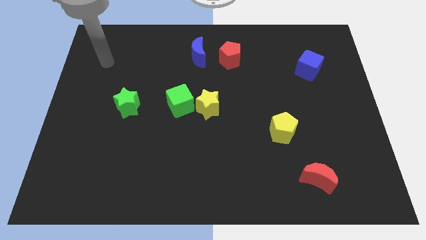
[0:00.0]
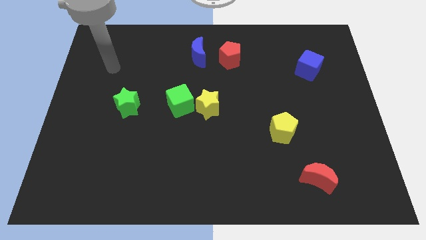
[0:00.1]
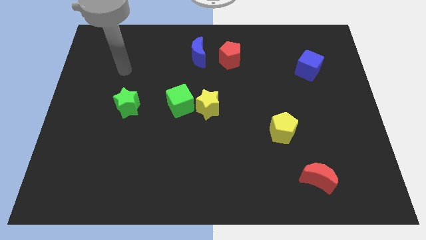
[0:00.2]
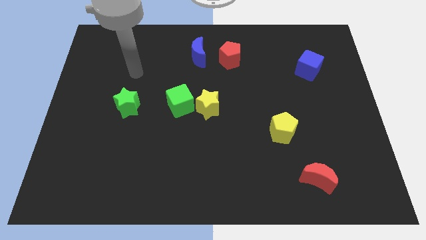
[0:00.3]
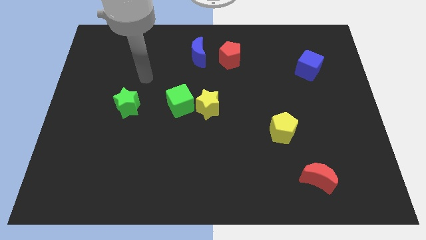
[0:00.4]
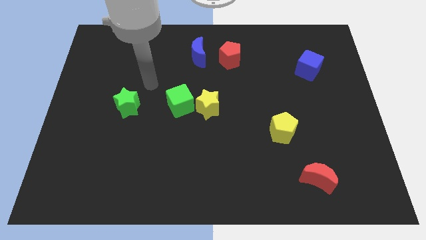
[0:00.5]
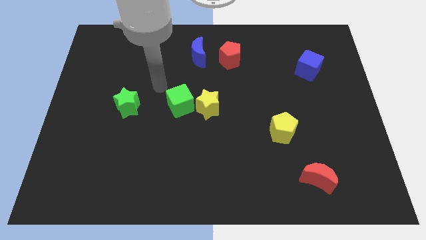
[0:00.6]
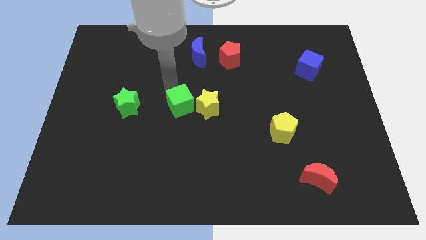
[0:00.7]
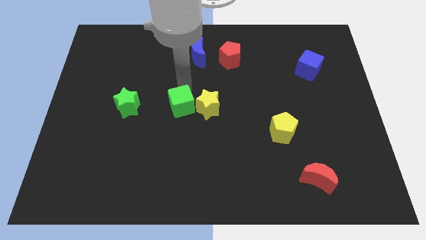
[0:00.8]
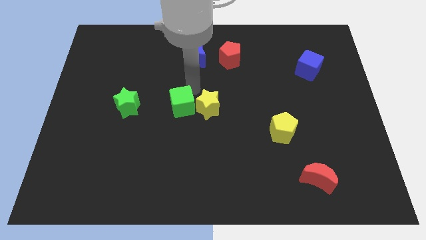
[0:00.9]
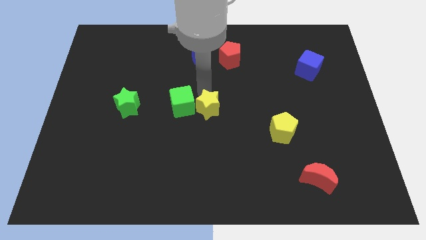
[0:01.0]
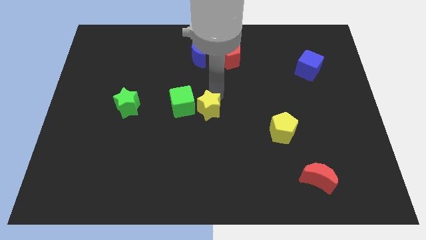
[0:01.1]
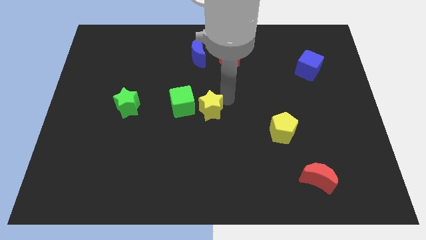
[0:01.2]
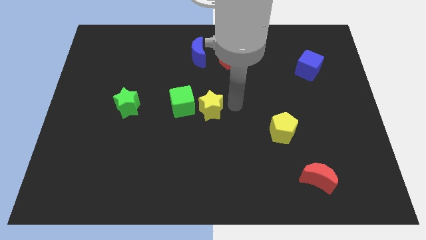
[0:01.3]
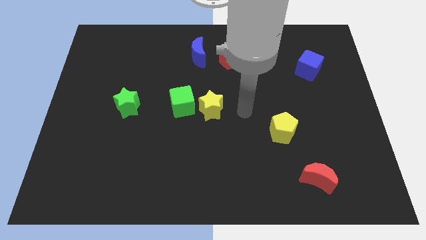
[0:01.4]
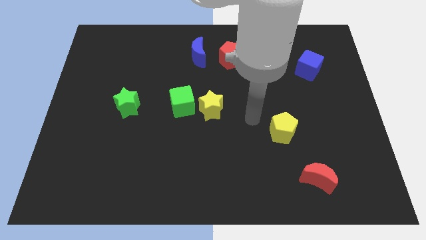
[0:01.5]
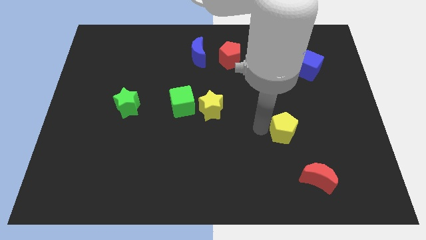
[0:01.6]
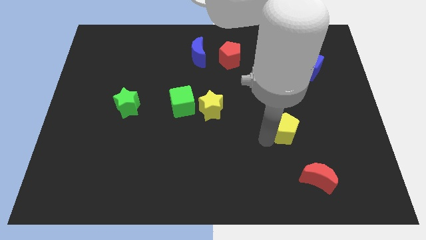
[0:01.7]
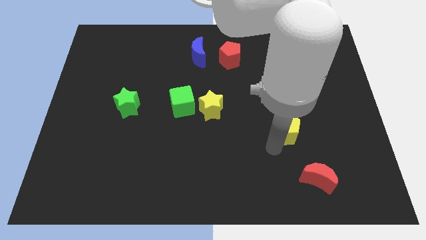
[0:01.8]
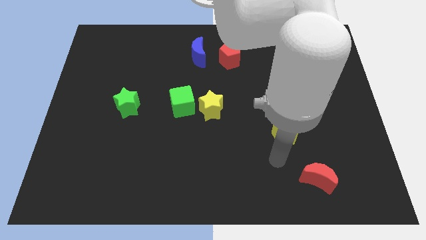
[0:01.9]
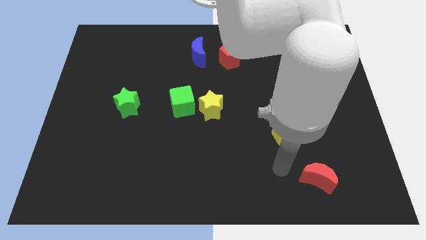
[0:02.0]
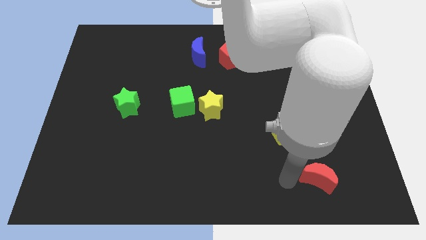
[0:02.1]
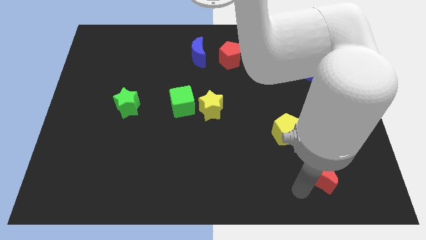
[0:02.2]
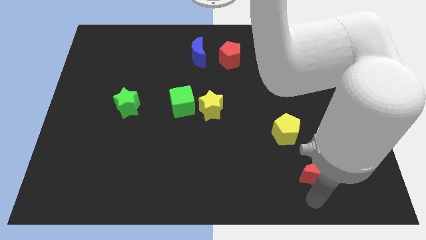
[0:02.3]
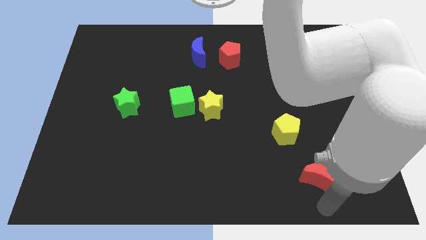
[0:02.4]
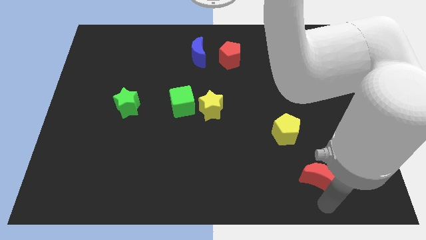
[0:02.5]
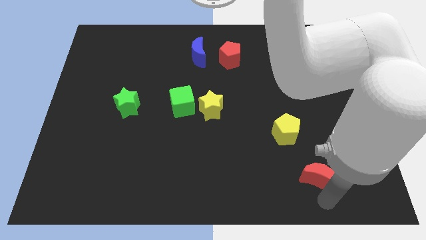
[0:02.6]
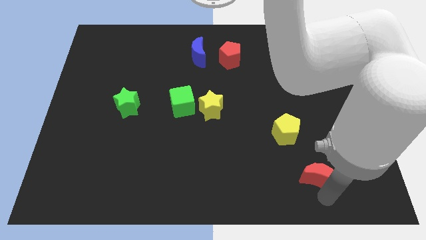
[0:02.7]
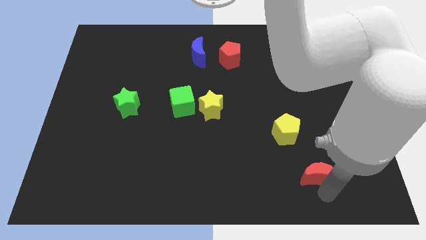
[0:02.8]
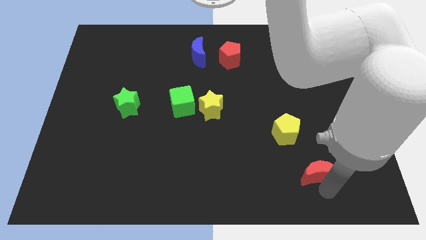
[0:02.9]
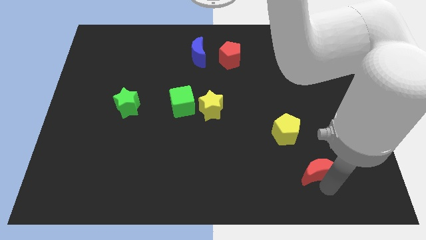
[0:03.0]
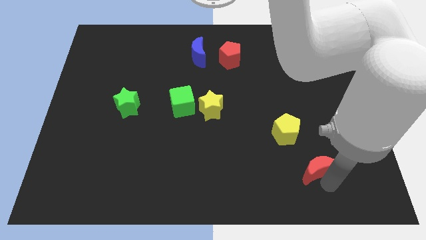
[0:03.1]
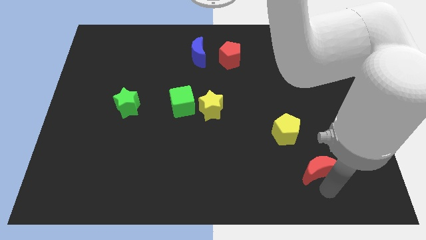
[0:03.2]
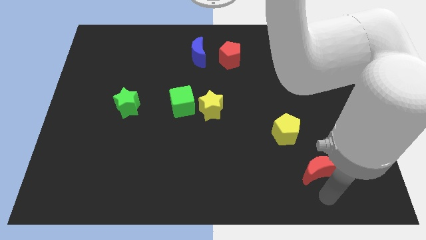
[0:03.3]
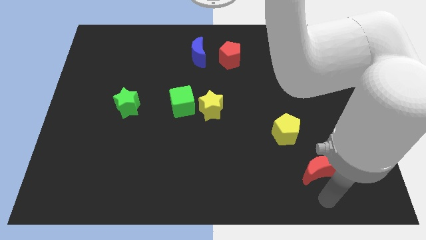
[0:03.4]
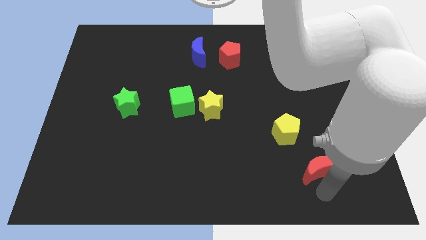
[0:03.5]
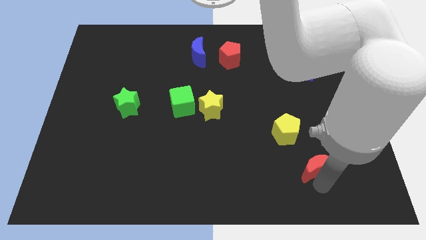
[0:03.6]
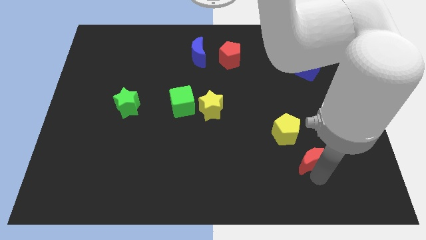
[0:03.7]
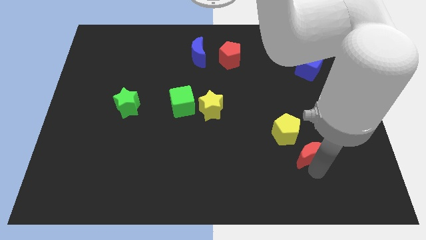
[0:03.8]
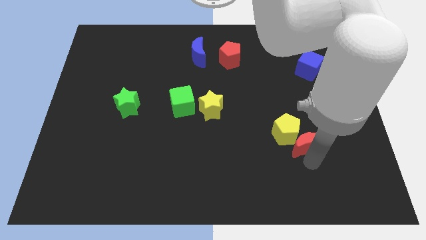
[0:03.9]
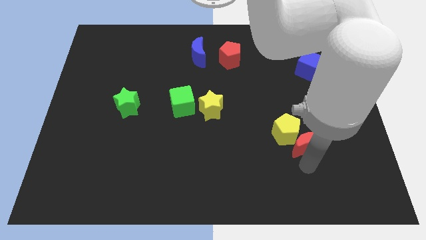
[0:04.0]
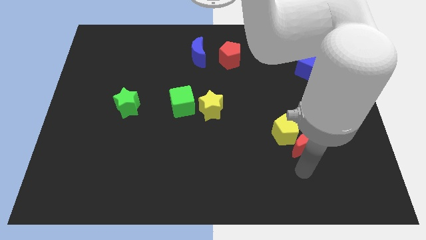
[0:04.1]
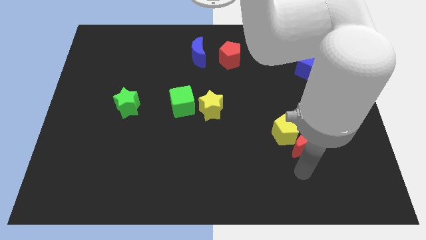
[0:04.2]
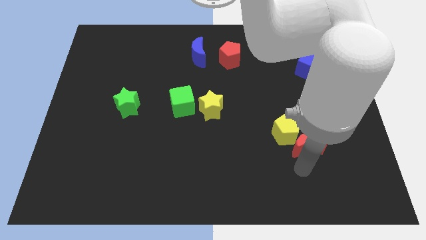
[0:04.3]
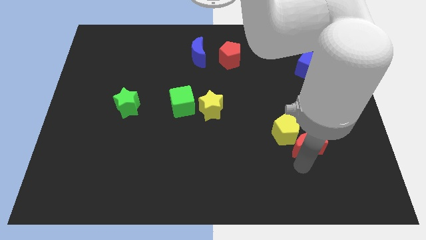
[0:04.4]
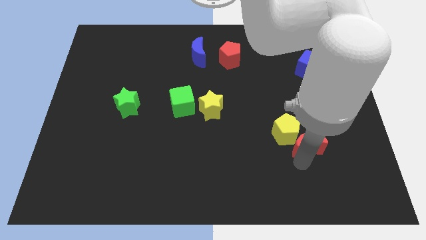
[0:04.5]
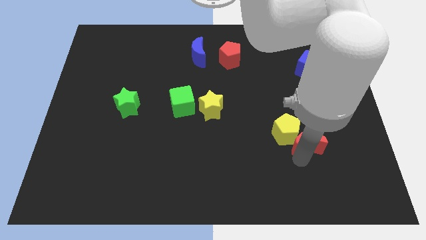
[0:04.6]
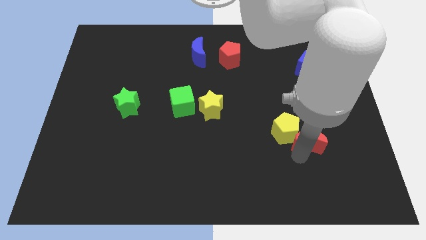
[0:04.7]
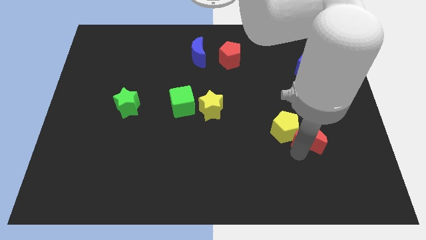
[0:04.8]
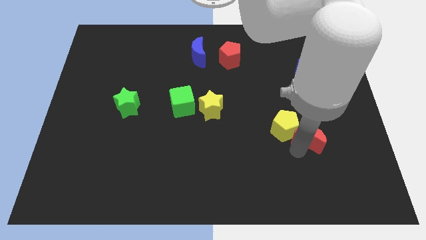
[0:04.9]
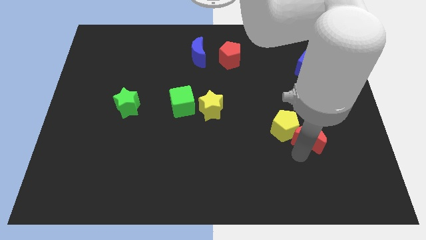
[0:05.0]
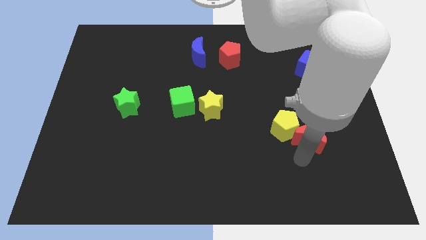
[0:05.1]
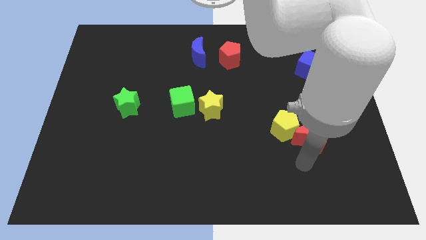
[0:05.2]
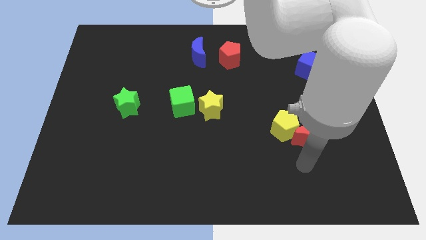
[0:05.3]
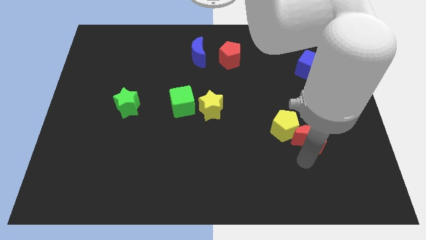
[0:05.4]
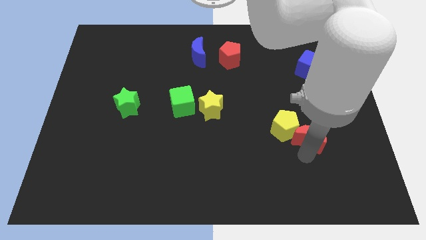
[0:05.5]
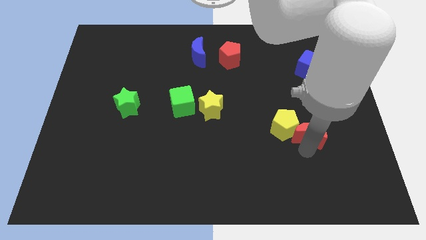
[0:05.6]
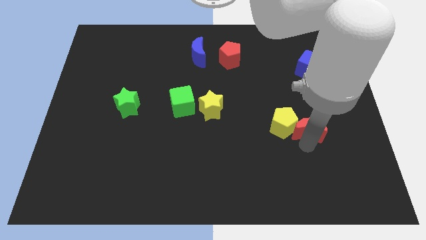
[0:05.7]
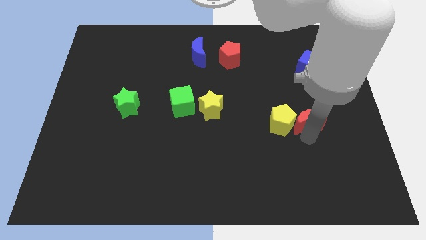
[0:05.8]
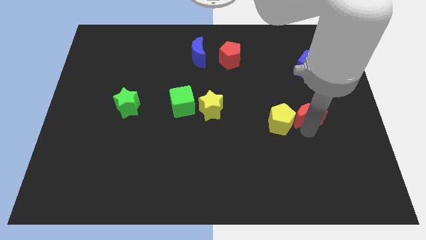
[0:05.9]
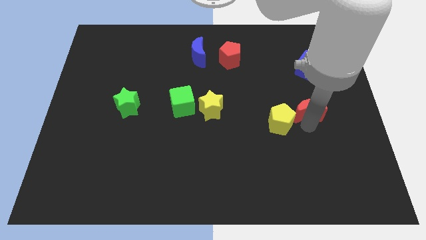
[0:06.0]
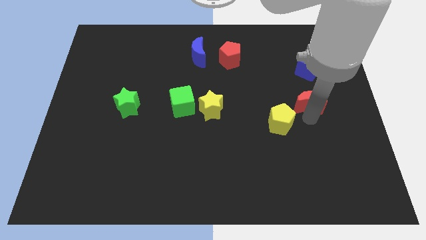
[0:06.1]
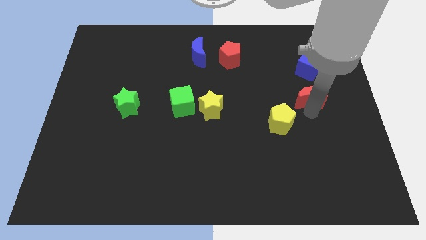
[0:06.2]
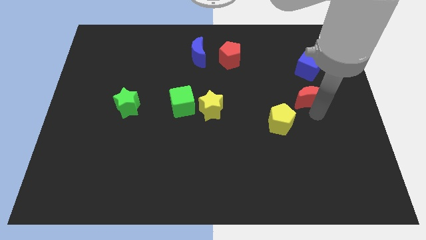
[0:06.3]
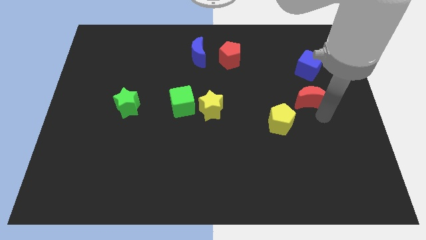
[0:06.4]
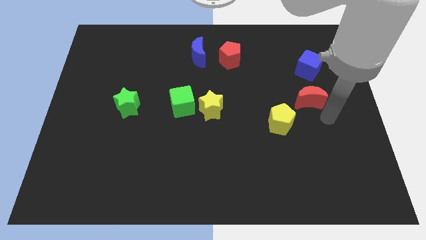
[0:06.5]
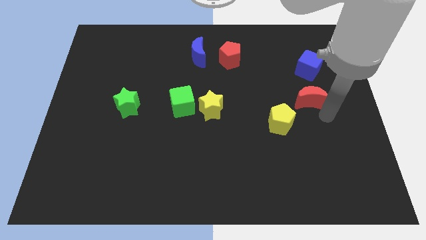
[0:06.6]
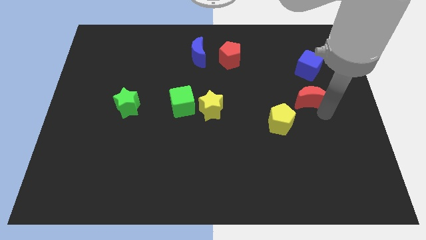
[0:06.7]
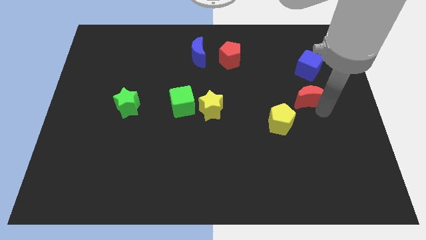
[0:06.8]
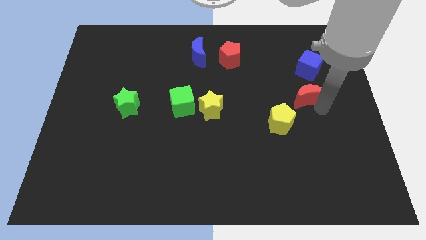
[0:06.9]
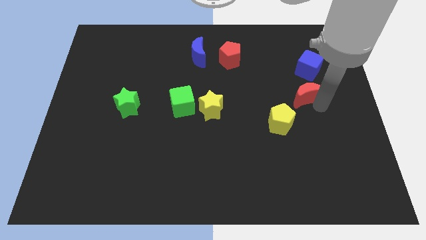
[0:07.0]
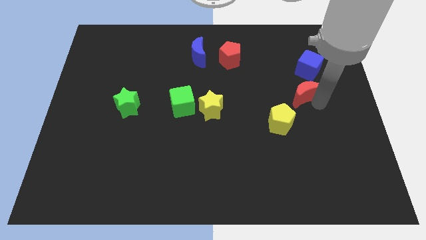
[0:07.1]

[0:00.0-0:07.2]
move the red moon to the bottom left side of the blue cube

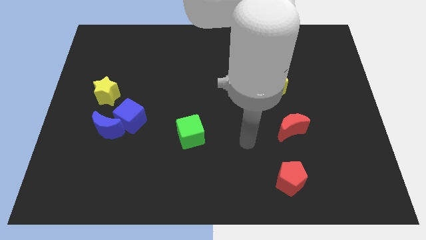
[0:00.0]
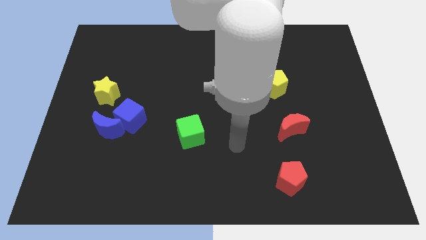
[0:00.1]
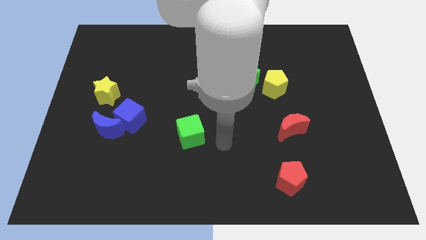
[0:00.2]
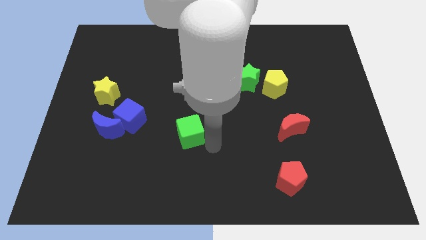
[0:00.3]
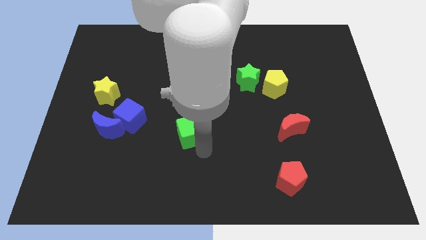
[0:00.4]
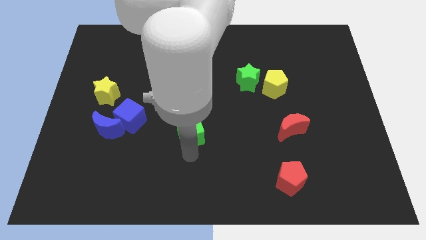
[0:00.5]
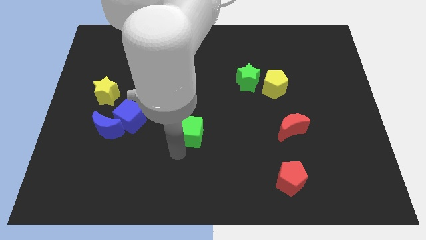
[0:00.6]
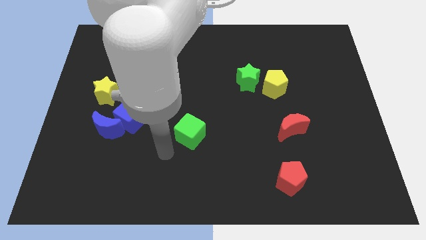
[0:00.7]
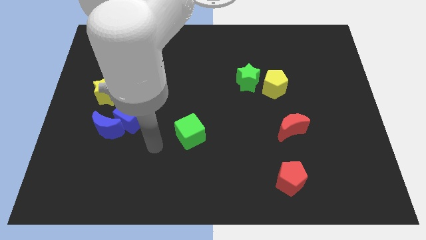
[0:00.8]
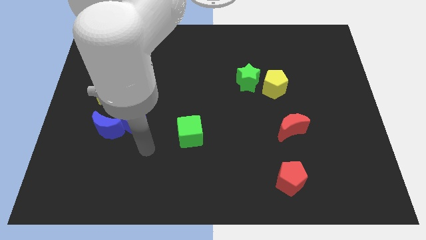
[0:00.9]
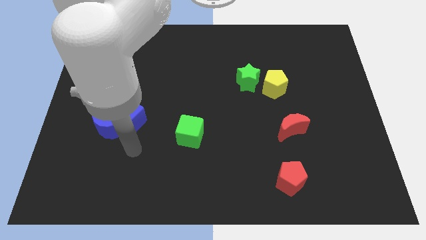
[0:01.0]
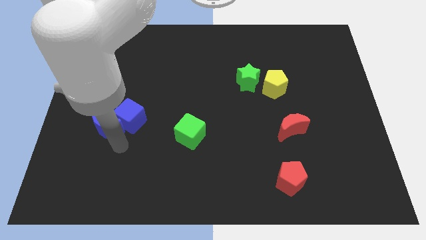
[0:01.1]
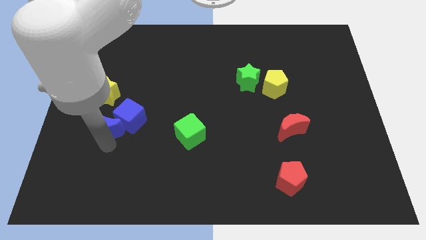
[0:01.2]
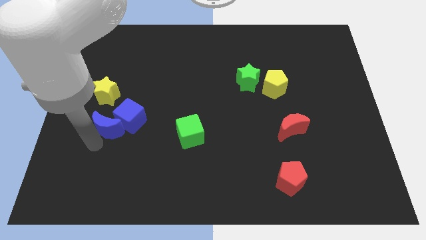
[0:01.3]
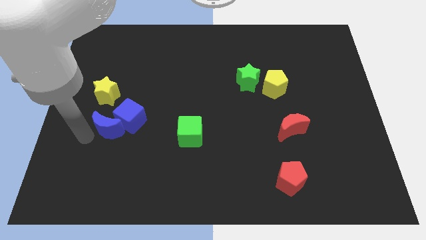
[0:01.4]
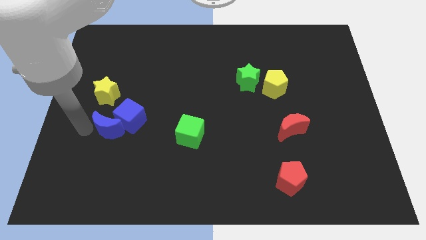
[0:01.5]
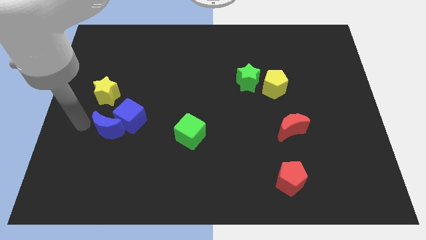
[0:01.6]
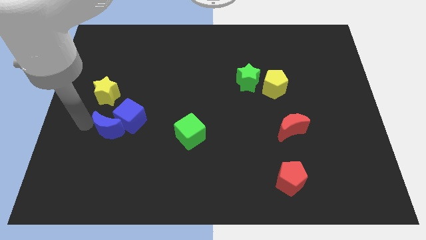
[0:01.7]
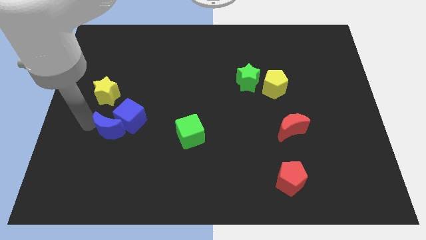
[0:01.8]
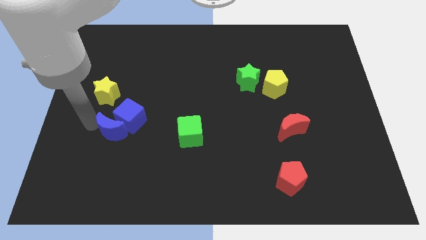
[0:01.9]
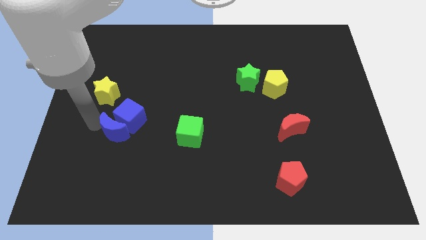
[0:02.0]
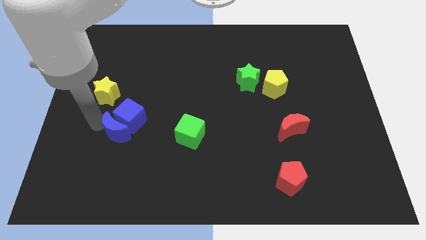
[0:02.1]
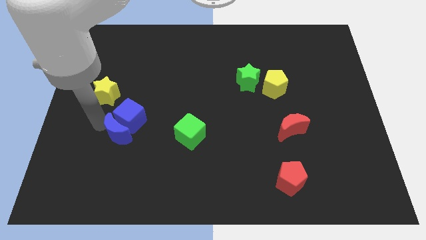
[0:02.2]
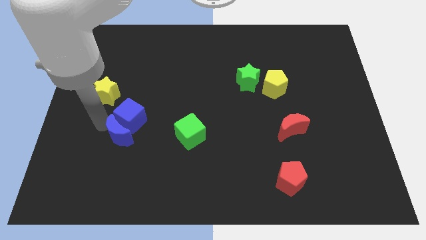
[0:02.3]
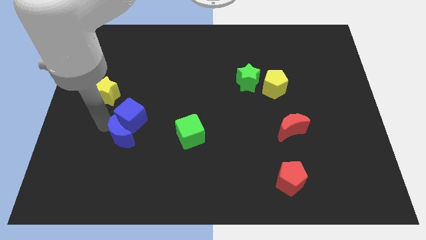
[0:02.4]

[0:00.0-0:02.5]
put the blue moon diagonally down and to the right of the blue cube
